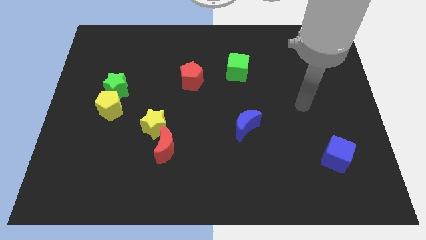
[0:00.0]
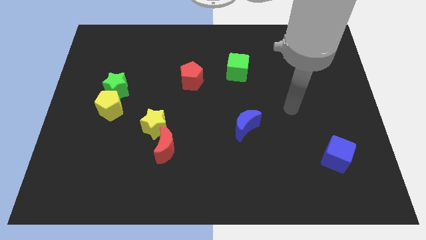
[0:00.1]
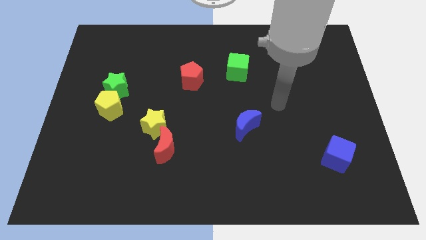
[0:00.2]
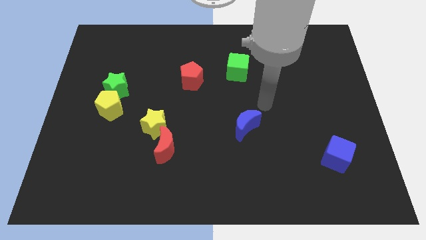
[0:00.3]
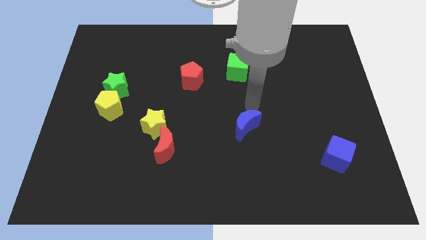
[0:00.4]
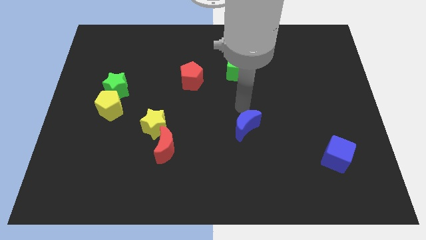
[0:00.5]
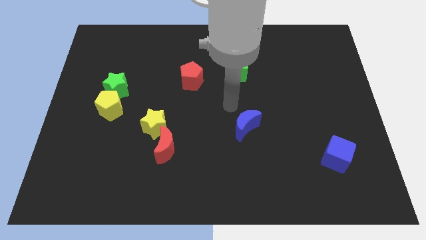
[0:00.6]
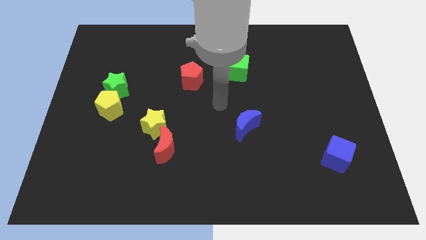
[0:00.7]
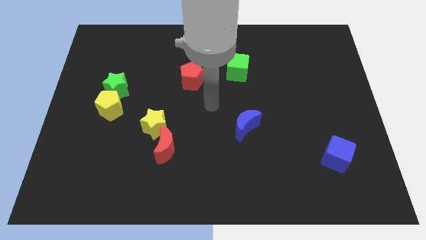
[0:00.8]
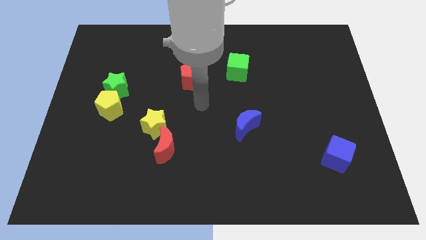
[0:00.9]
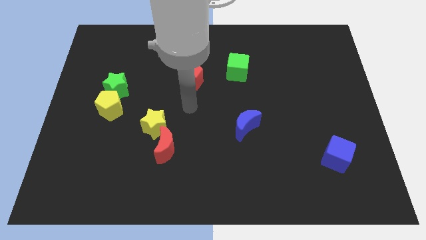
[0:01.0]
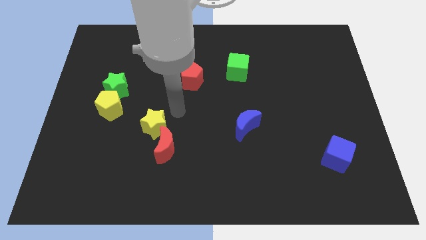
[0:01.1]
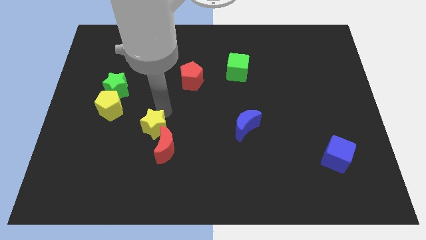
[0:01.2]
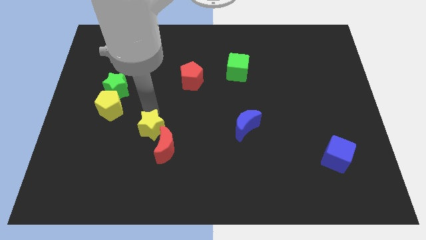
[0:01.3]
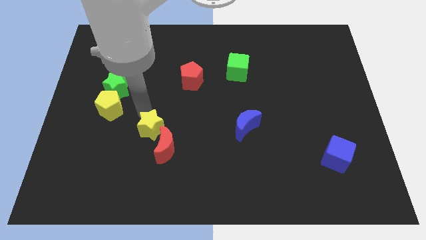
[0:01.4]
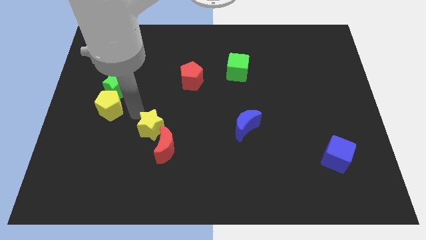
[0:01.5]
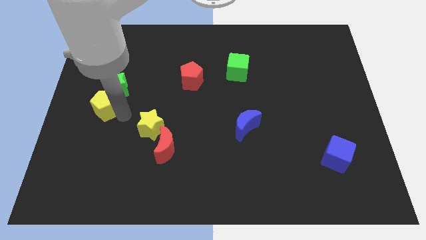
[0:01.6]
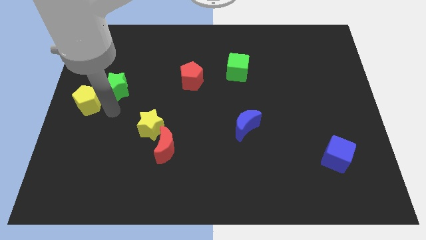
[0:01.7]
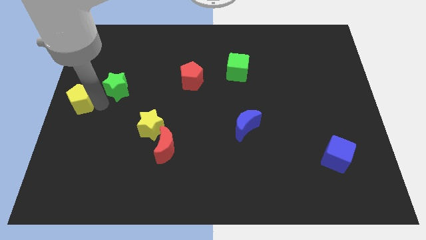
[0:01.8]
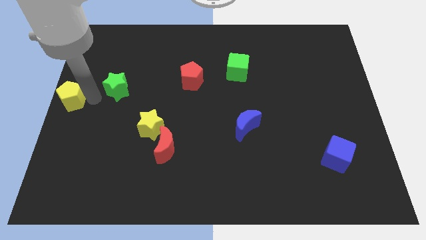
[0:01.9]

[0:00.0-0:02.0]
pull the green star apart from the yellow pentagon

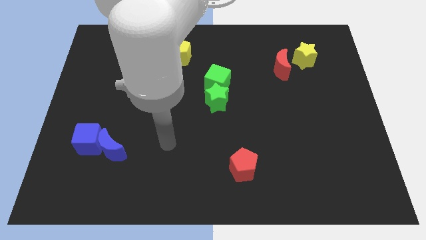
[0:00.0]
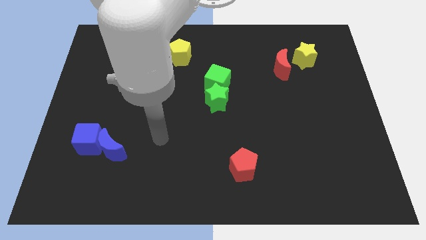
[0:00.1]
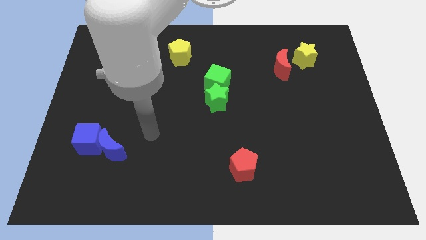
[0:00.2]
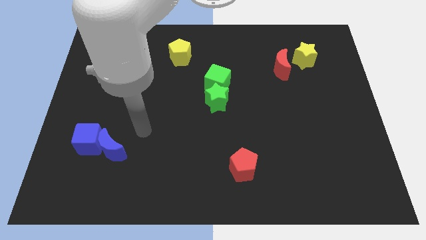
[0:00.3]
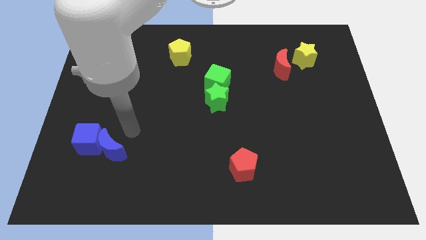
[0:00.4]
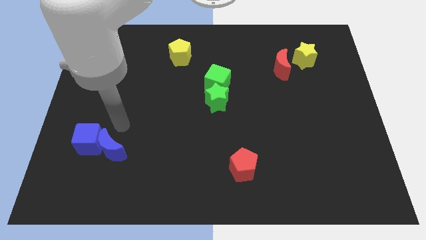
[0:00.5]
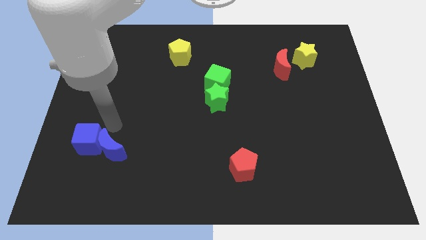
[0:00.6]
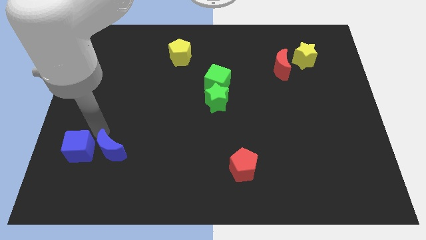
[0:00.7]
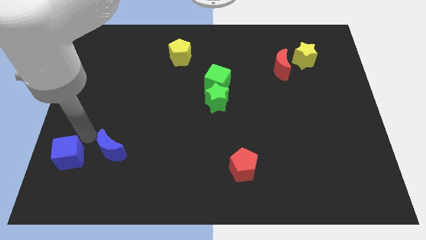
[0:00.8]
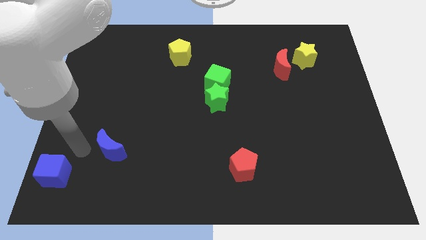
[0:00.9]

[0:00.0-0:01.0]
separate the blue moon from the blue cube

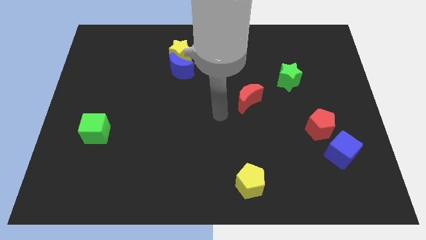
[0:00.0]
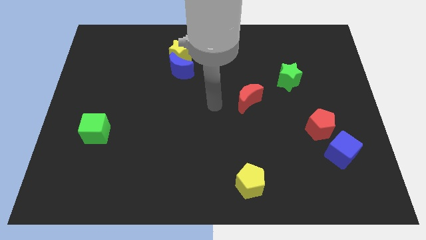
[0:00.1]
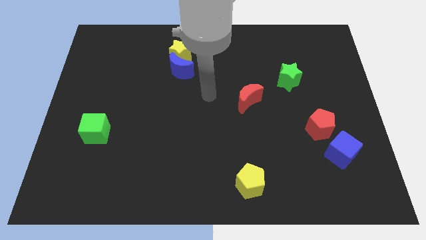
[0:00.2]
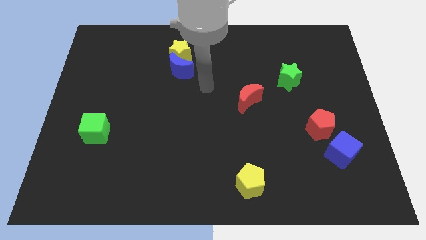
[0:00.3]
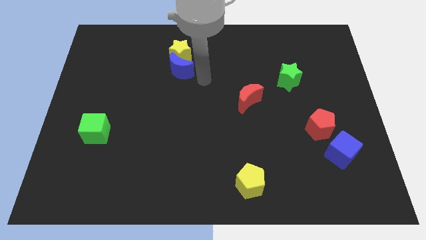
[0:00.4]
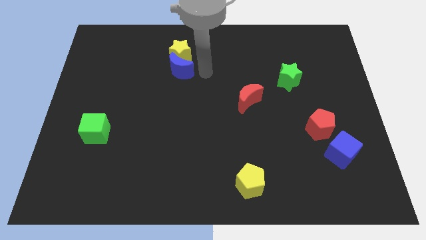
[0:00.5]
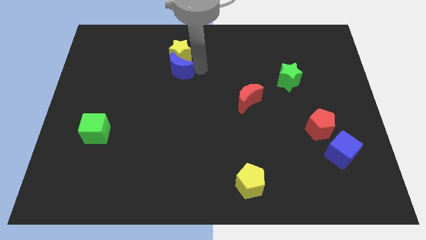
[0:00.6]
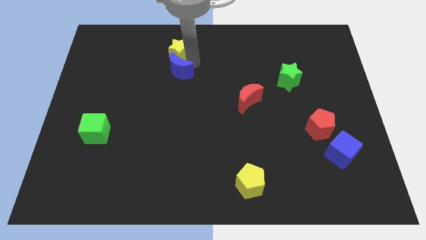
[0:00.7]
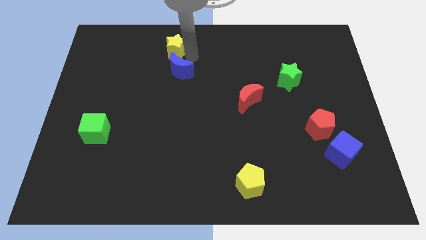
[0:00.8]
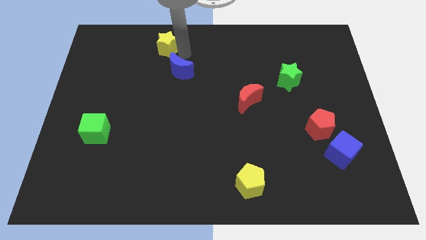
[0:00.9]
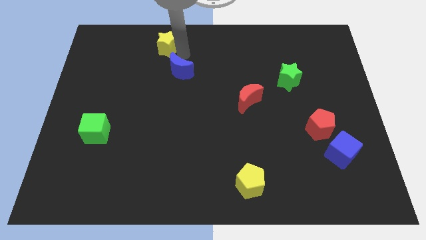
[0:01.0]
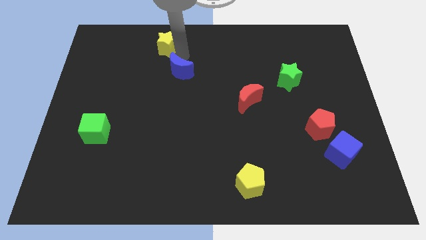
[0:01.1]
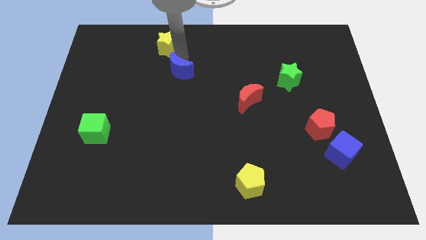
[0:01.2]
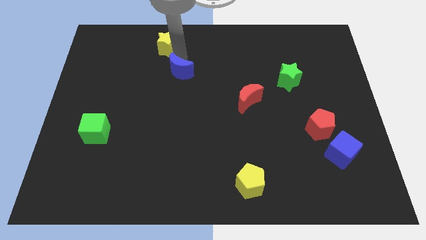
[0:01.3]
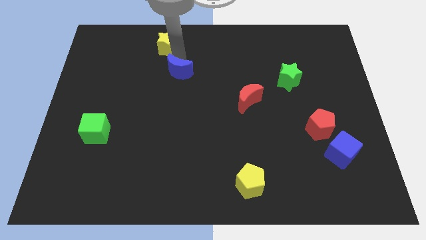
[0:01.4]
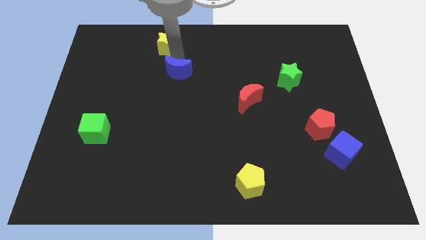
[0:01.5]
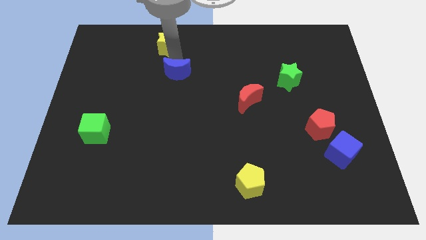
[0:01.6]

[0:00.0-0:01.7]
separate the blue moon from the yellow star

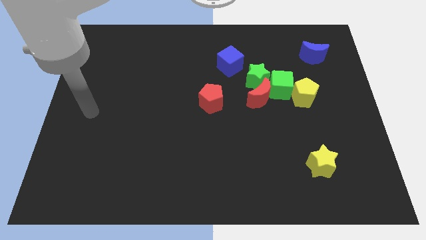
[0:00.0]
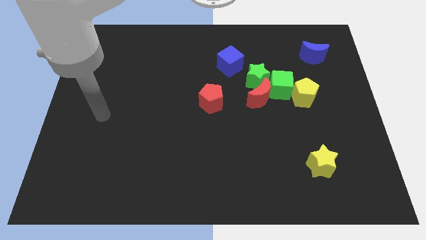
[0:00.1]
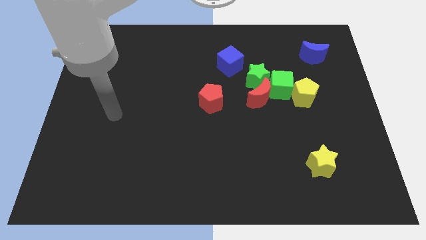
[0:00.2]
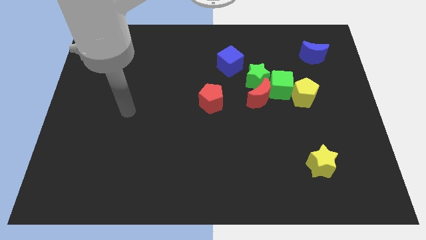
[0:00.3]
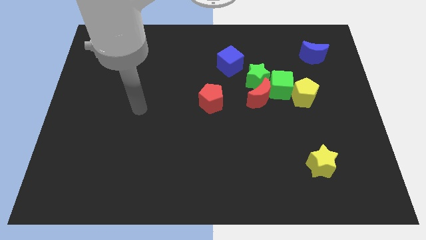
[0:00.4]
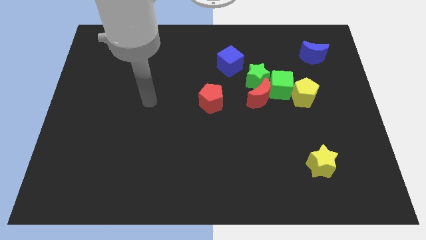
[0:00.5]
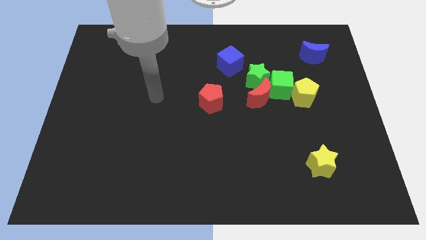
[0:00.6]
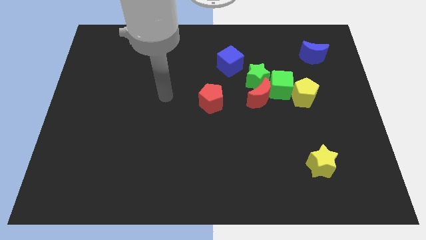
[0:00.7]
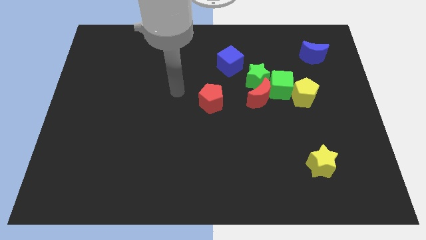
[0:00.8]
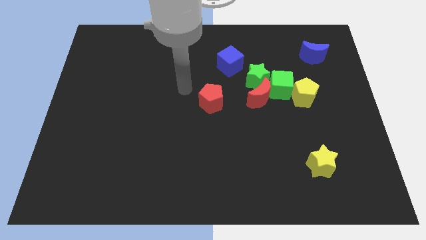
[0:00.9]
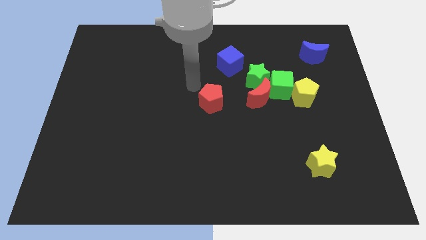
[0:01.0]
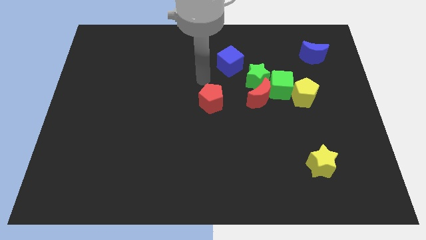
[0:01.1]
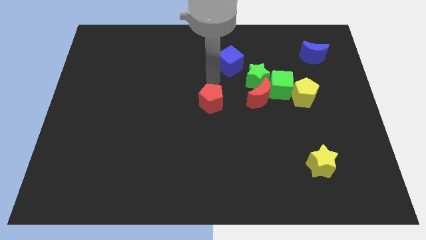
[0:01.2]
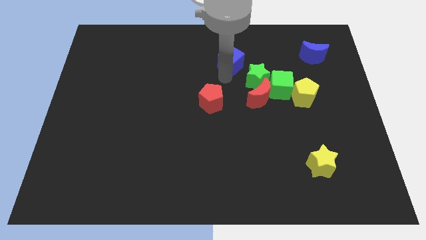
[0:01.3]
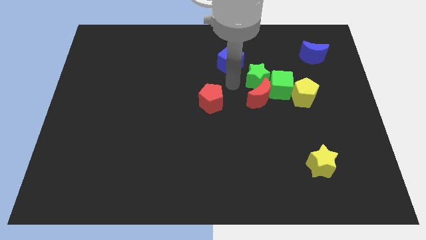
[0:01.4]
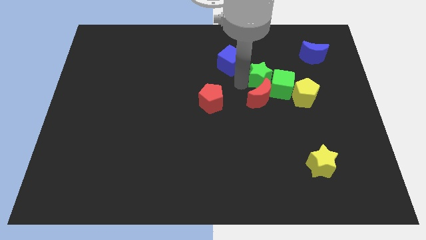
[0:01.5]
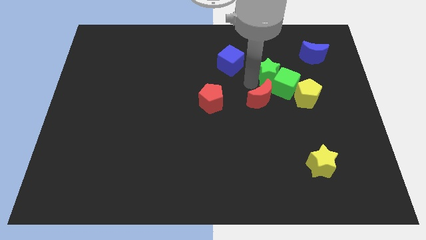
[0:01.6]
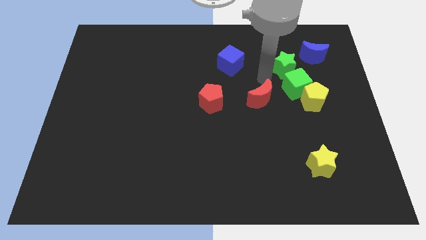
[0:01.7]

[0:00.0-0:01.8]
separate the red moon from the green star and green cube

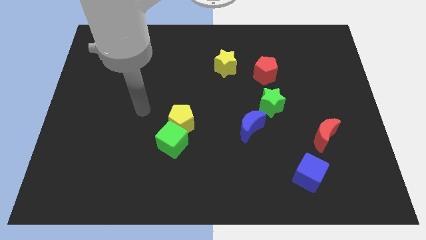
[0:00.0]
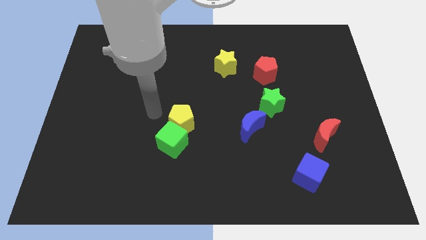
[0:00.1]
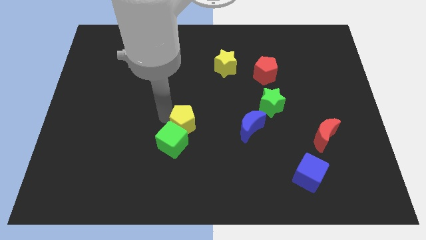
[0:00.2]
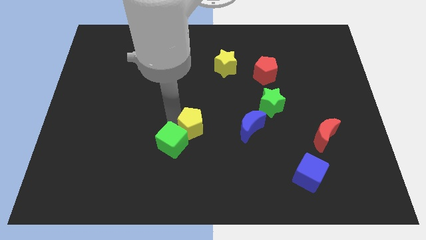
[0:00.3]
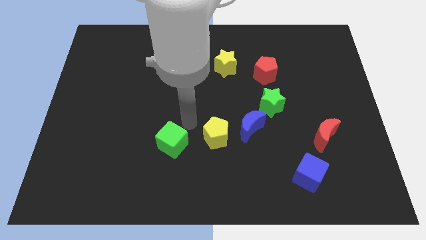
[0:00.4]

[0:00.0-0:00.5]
separate the green cube from the yellow pentagon

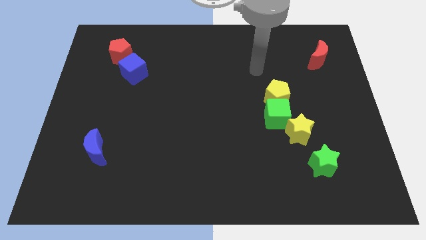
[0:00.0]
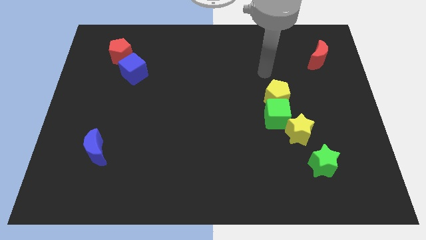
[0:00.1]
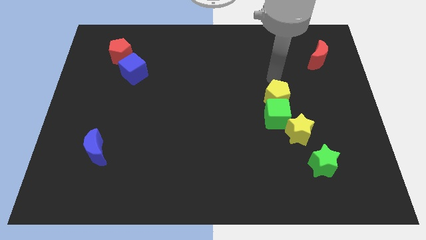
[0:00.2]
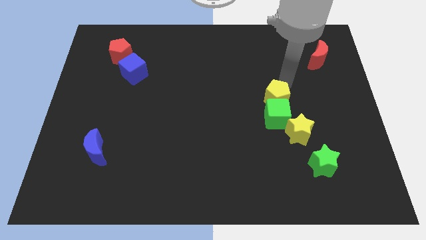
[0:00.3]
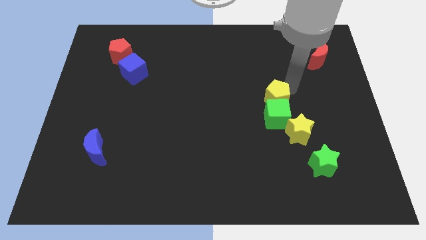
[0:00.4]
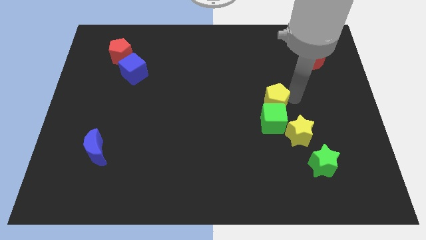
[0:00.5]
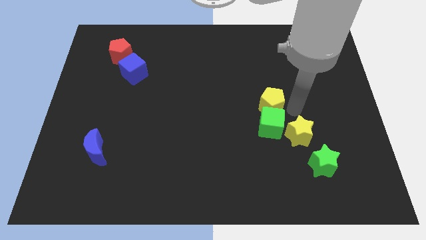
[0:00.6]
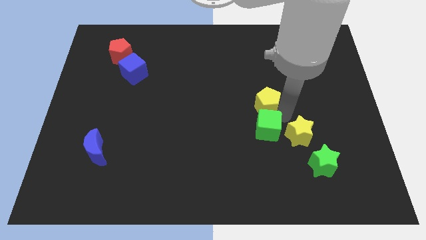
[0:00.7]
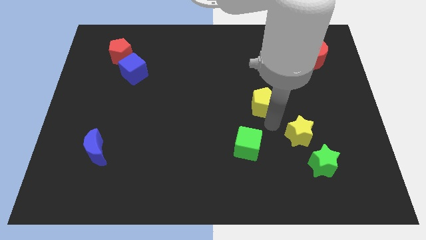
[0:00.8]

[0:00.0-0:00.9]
pull the yellow pentagon apart from the green cube

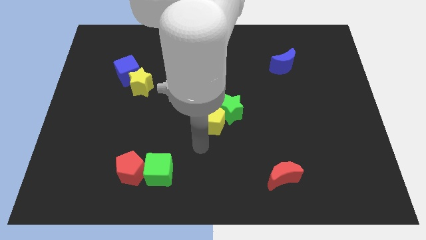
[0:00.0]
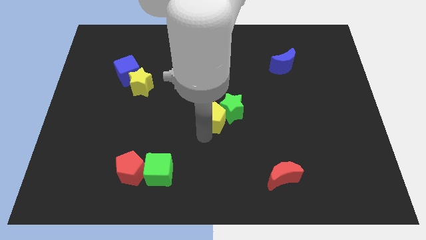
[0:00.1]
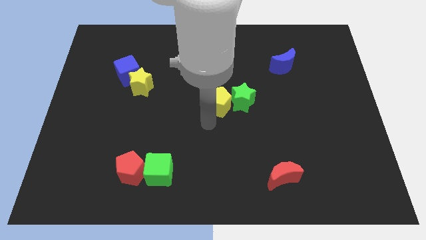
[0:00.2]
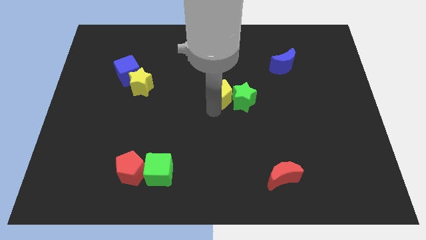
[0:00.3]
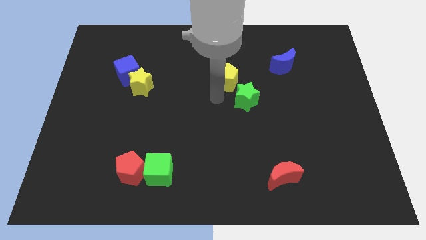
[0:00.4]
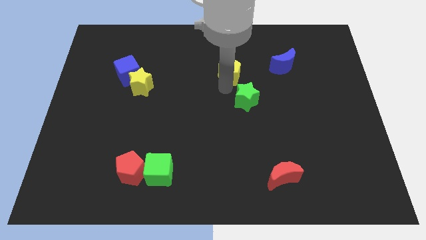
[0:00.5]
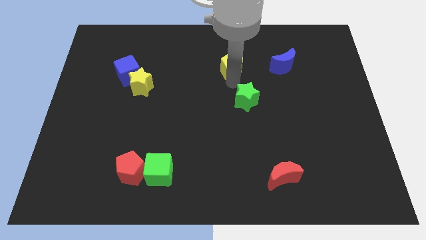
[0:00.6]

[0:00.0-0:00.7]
separate the green star from the yellow pentagon

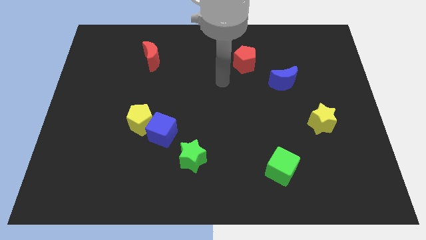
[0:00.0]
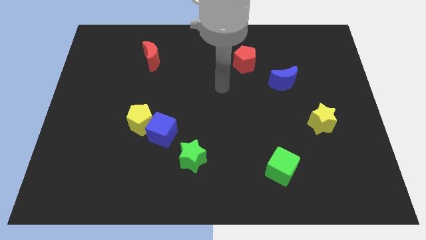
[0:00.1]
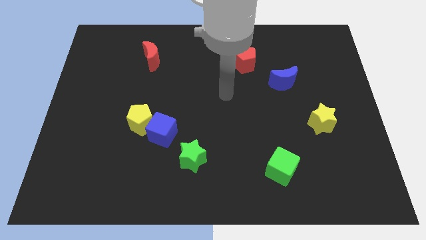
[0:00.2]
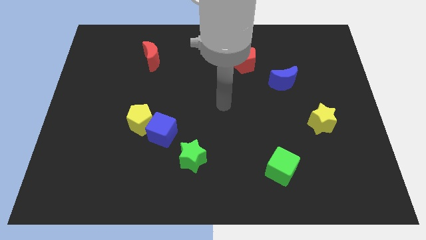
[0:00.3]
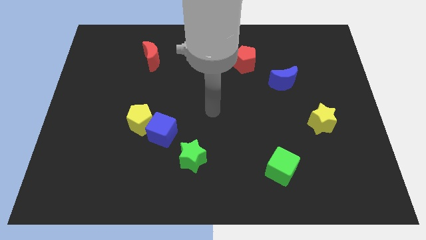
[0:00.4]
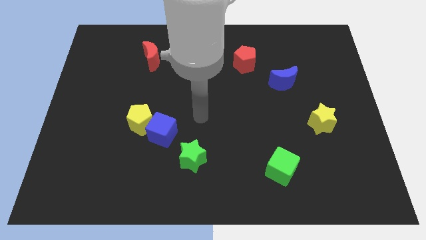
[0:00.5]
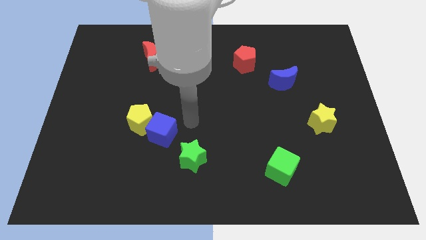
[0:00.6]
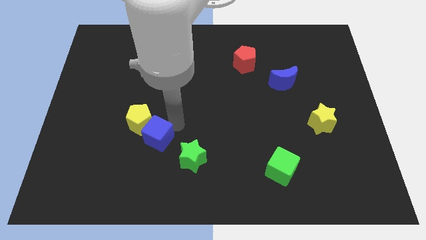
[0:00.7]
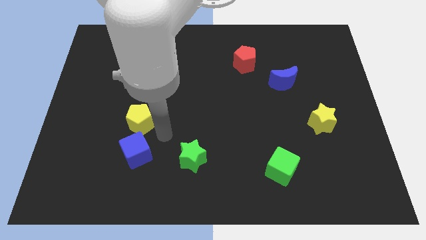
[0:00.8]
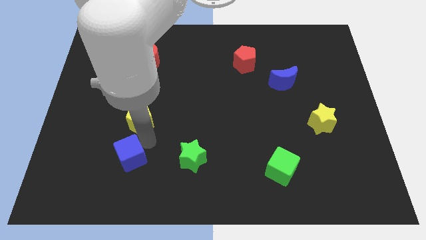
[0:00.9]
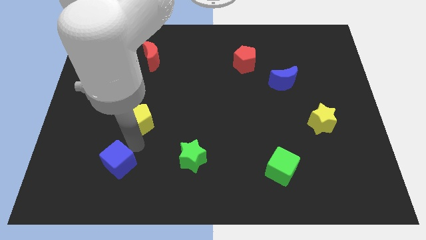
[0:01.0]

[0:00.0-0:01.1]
pull the yellow pentagon apart from the blue cube
